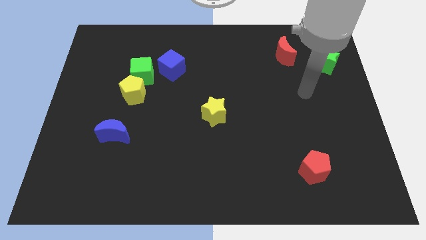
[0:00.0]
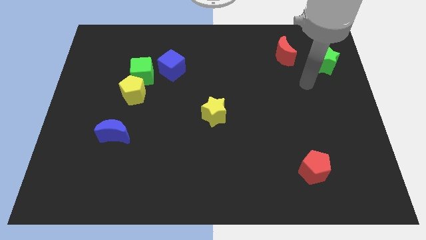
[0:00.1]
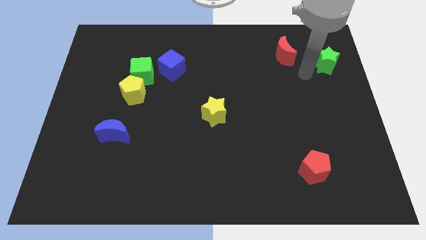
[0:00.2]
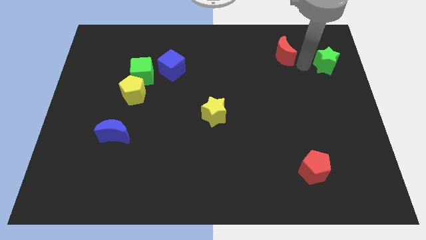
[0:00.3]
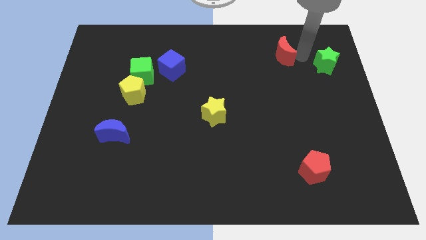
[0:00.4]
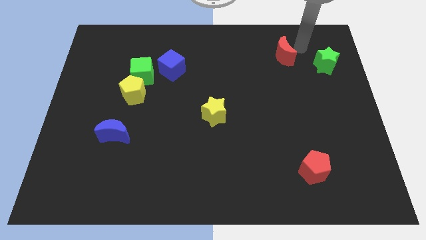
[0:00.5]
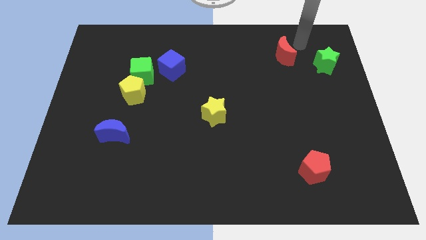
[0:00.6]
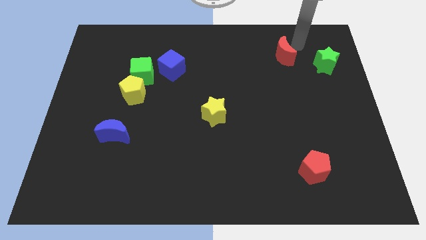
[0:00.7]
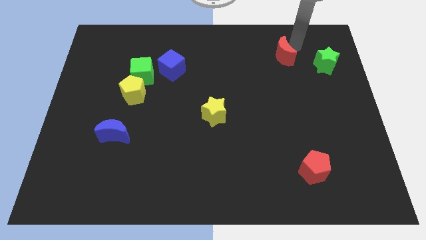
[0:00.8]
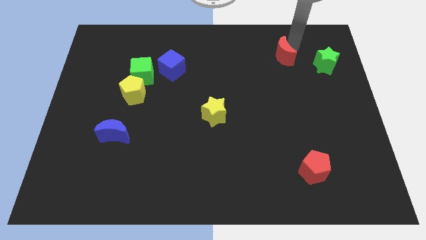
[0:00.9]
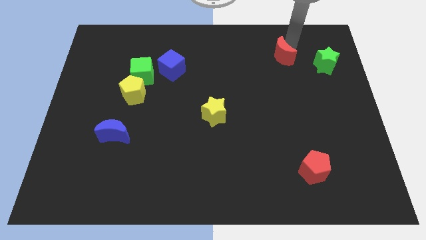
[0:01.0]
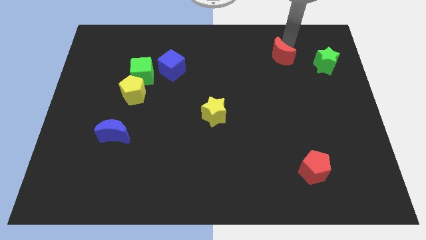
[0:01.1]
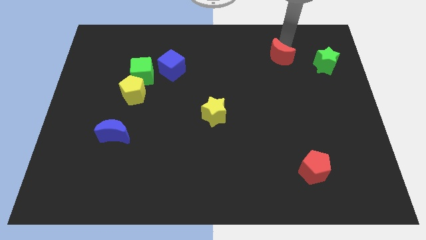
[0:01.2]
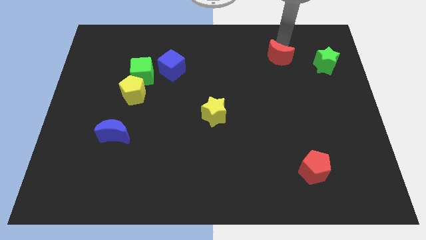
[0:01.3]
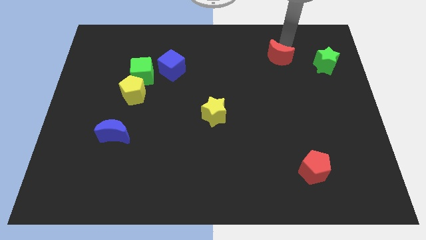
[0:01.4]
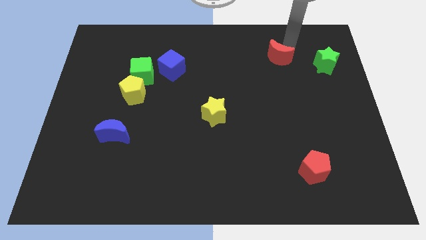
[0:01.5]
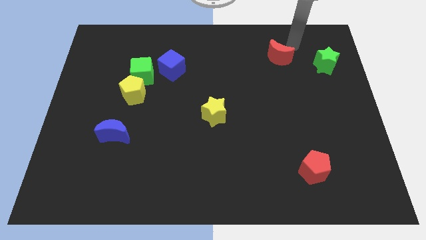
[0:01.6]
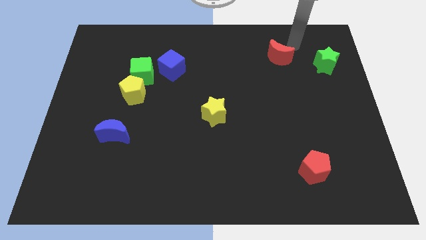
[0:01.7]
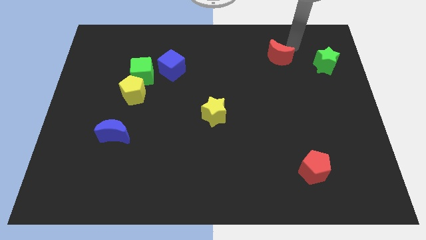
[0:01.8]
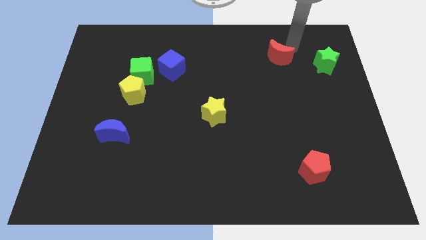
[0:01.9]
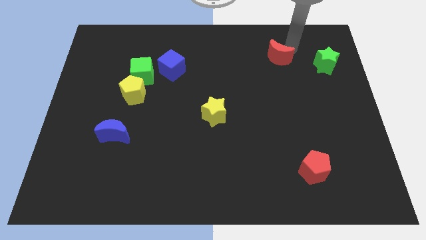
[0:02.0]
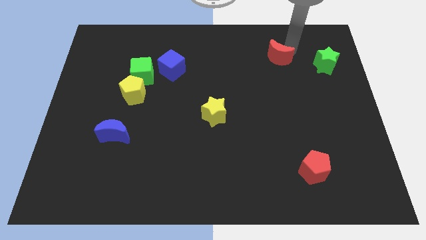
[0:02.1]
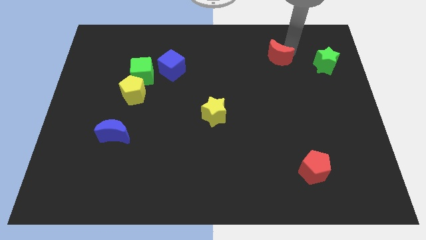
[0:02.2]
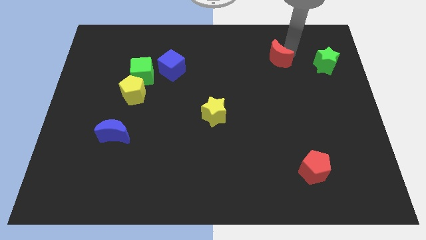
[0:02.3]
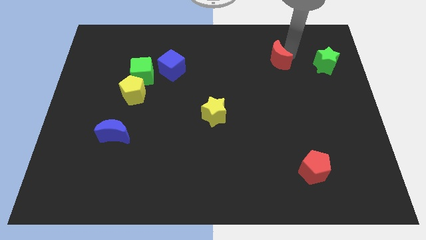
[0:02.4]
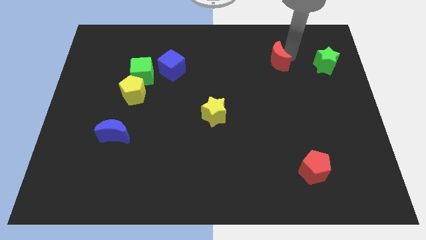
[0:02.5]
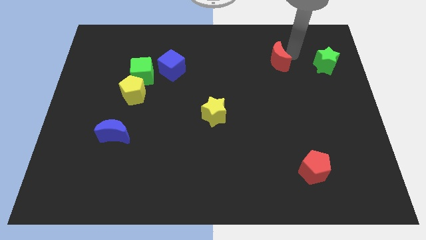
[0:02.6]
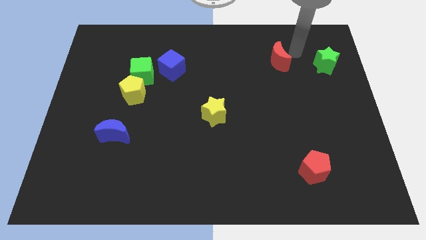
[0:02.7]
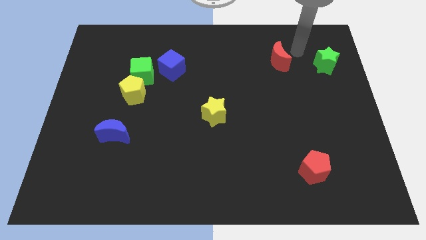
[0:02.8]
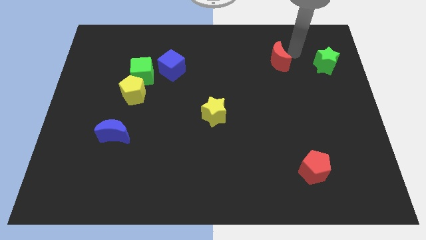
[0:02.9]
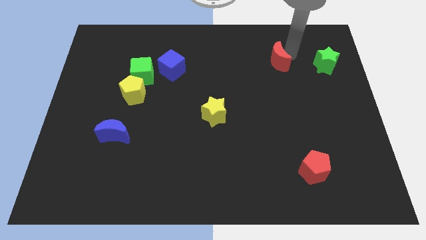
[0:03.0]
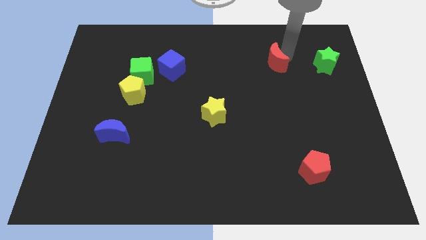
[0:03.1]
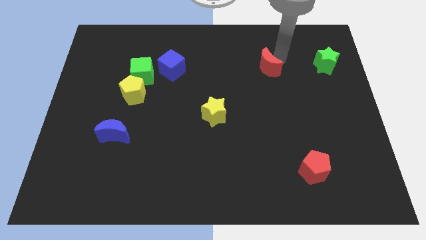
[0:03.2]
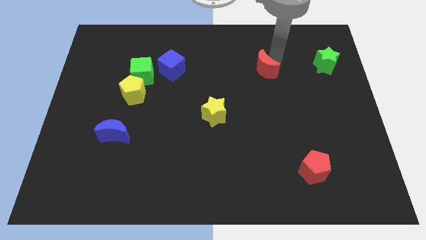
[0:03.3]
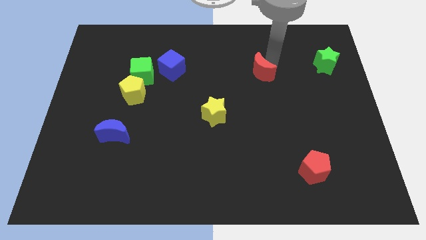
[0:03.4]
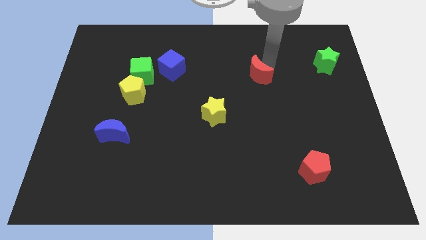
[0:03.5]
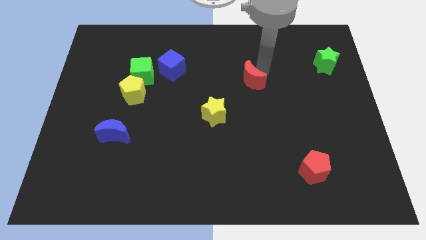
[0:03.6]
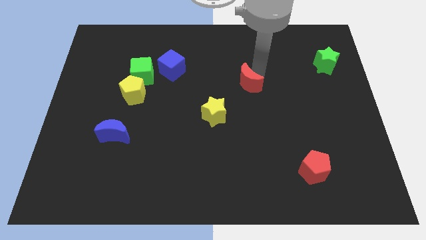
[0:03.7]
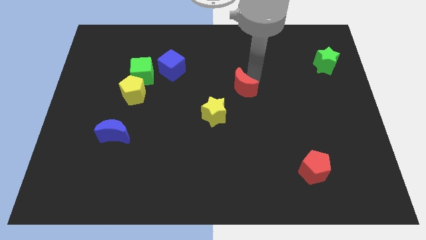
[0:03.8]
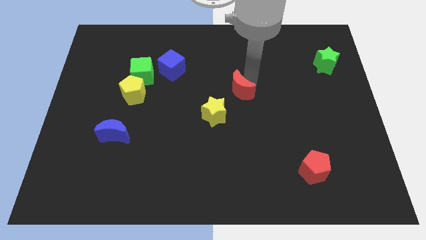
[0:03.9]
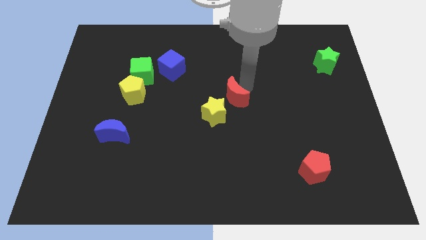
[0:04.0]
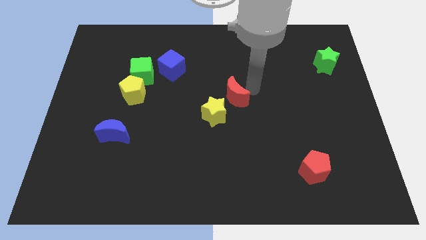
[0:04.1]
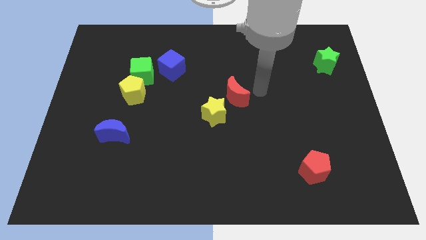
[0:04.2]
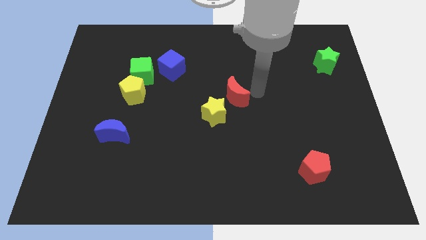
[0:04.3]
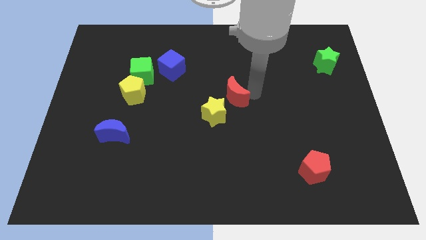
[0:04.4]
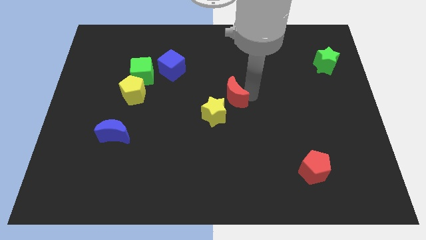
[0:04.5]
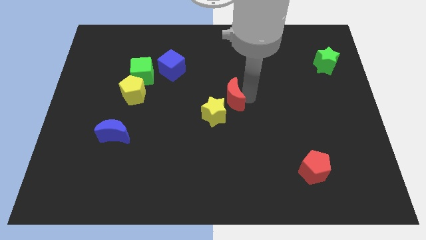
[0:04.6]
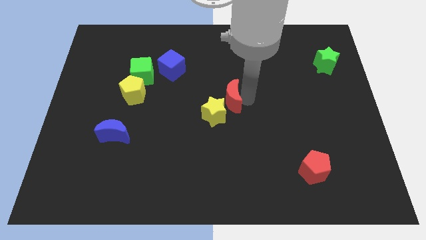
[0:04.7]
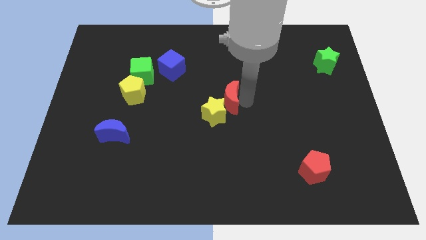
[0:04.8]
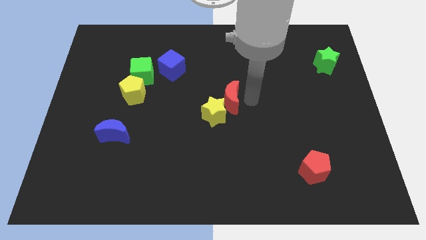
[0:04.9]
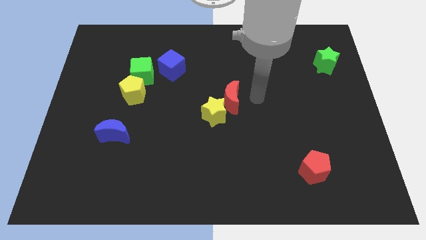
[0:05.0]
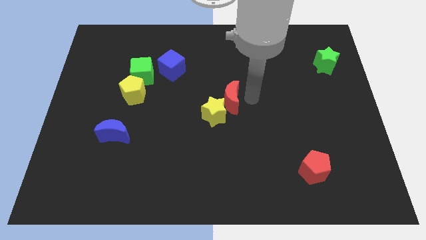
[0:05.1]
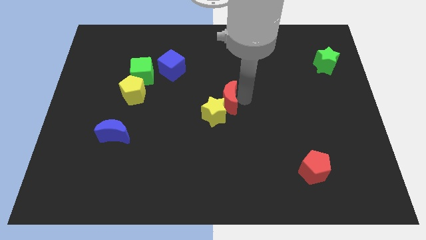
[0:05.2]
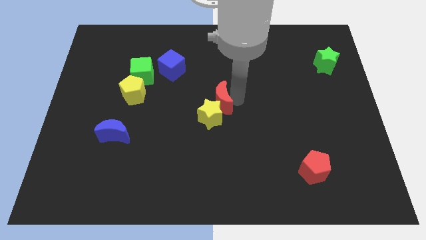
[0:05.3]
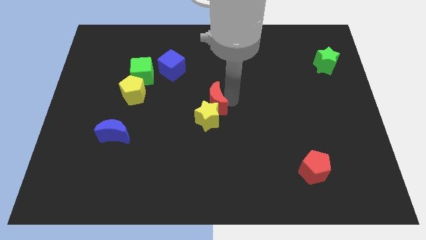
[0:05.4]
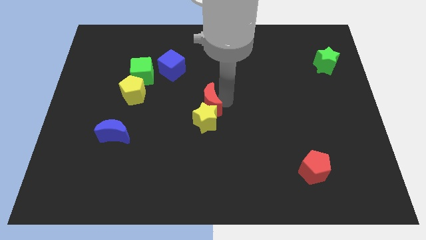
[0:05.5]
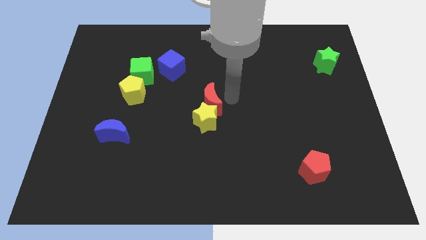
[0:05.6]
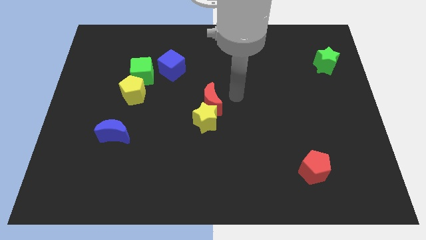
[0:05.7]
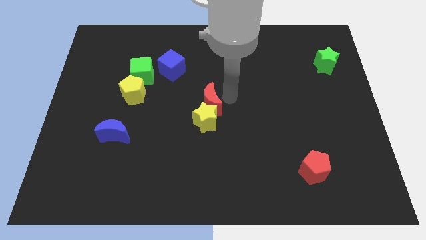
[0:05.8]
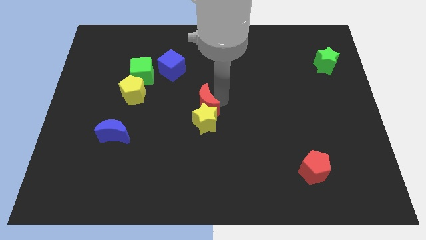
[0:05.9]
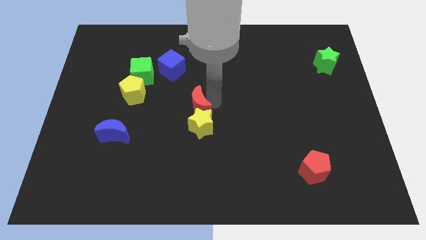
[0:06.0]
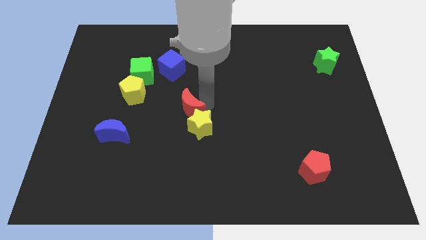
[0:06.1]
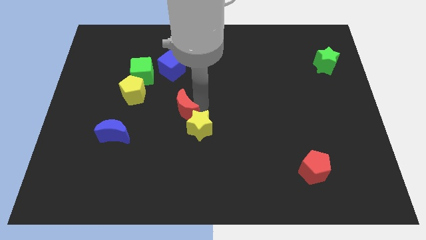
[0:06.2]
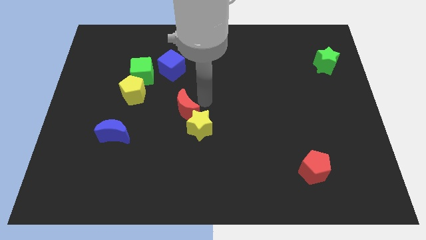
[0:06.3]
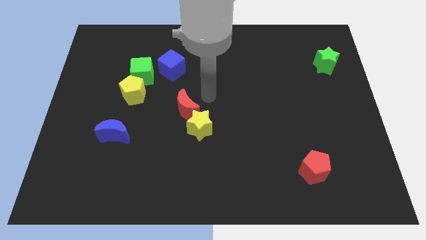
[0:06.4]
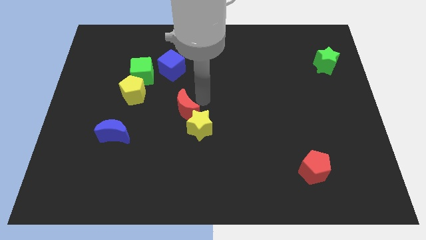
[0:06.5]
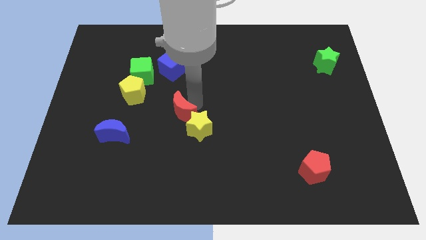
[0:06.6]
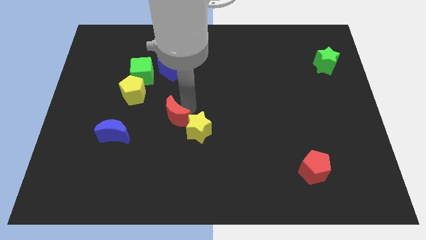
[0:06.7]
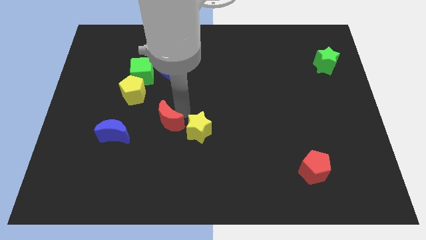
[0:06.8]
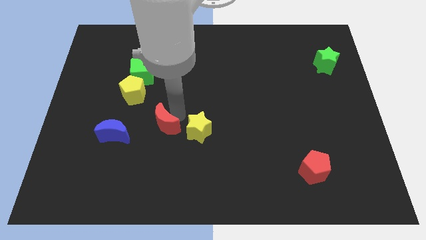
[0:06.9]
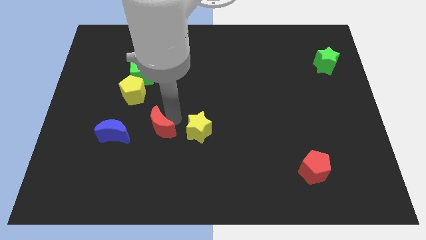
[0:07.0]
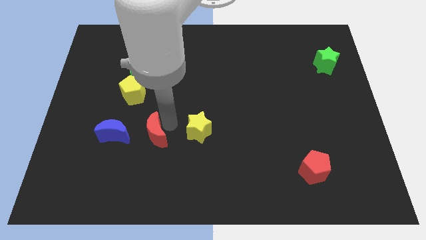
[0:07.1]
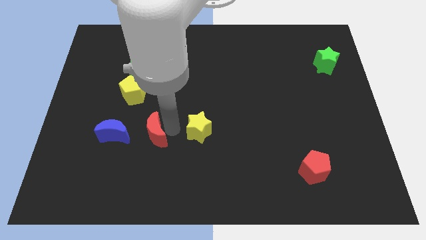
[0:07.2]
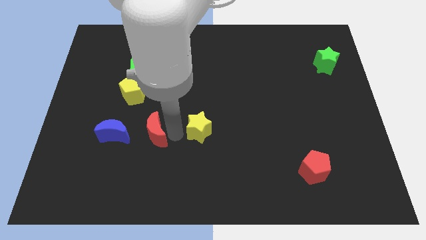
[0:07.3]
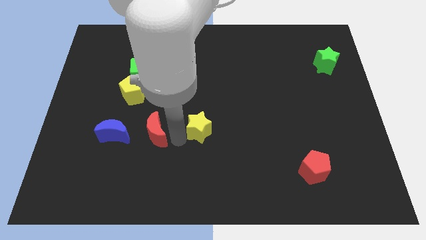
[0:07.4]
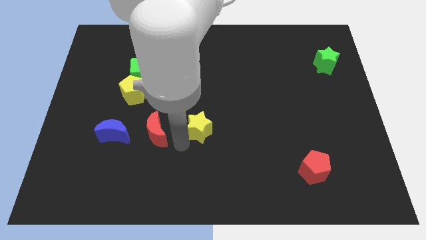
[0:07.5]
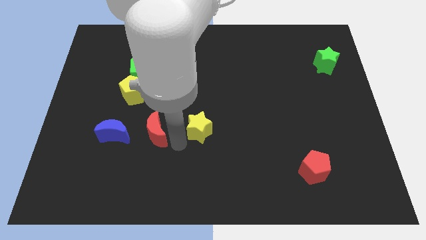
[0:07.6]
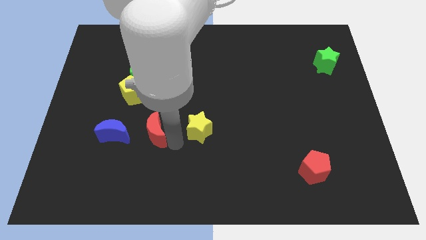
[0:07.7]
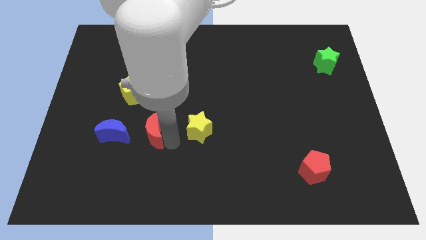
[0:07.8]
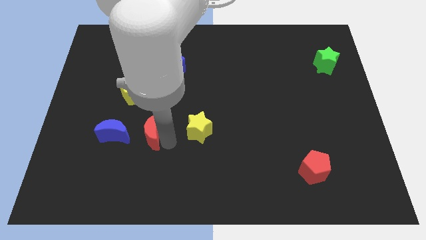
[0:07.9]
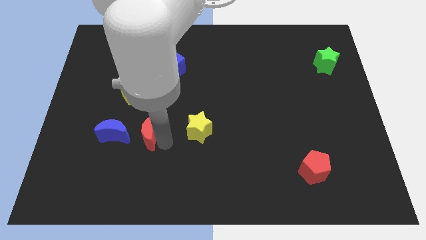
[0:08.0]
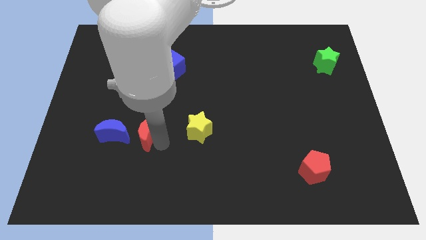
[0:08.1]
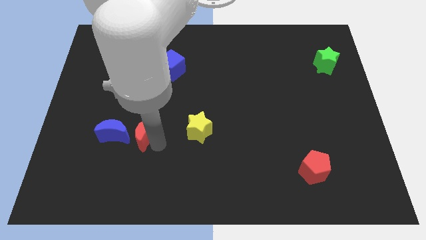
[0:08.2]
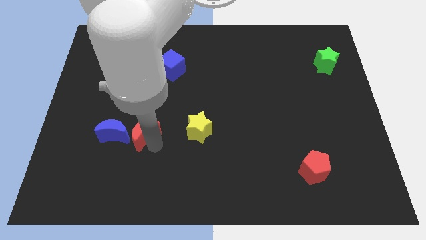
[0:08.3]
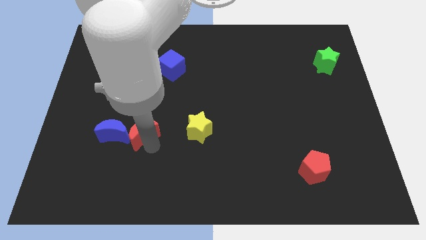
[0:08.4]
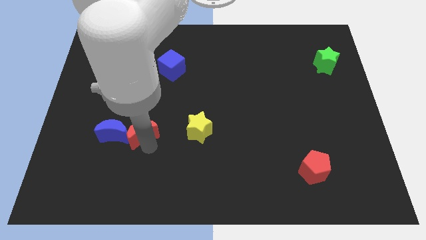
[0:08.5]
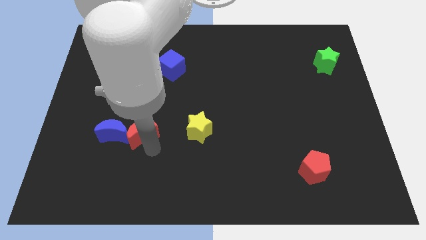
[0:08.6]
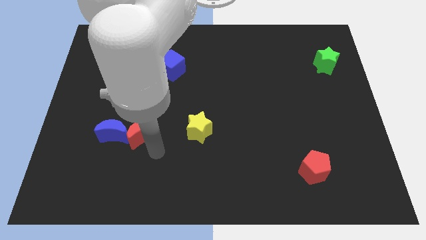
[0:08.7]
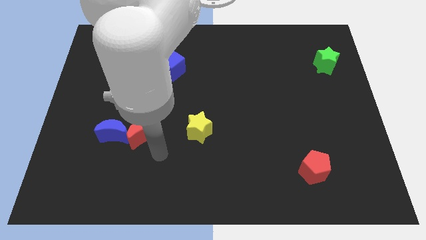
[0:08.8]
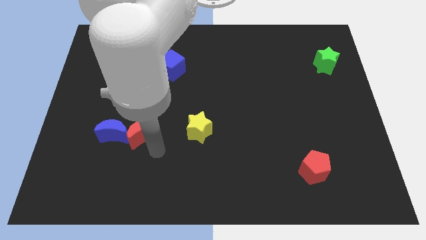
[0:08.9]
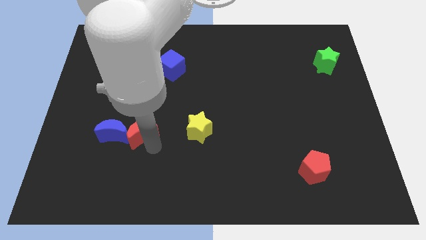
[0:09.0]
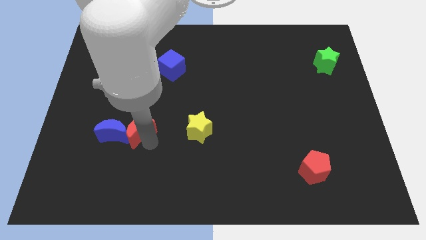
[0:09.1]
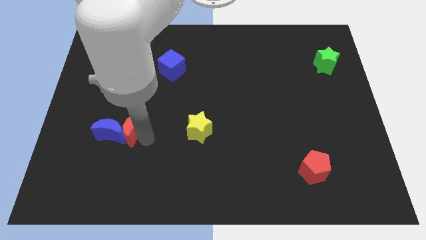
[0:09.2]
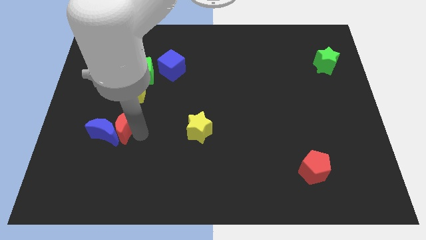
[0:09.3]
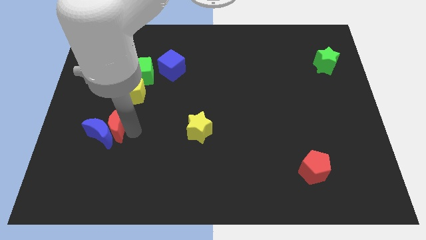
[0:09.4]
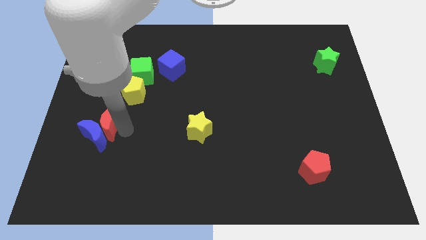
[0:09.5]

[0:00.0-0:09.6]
slide the red moon to the bottom left side of the yellow pentagon
